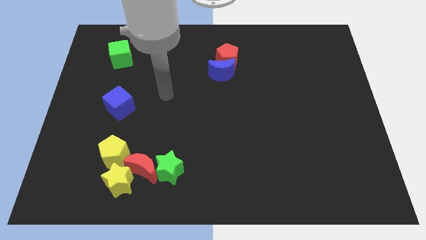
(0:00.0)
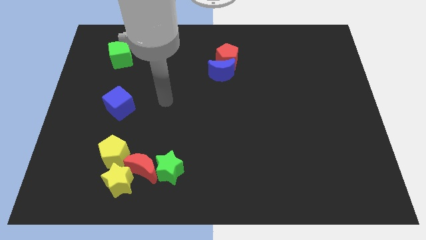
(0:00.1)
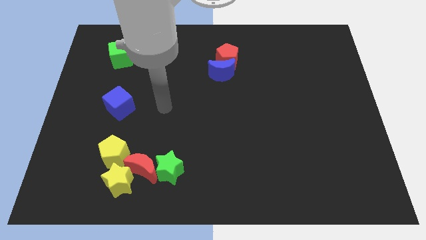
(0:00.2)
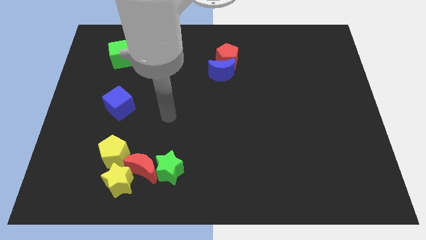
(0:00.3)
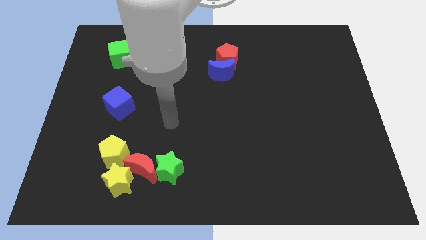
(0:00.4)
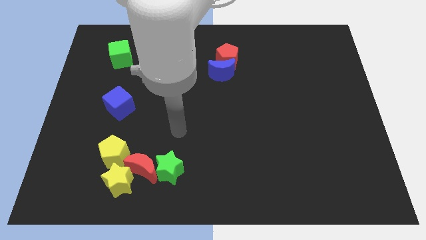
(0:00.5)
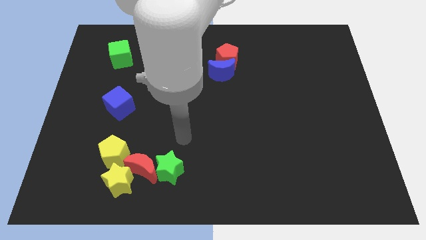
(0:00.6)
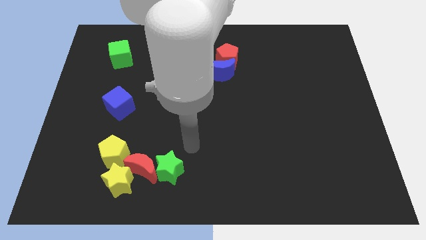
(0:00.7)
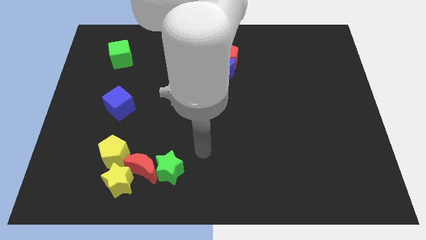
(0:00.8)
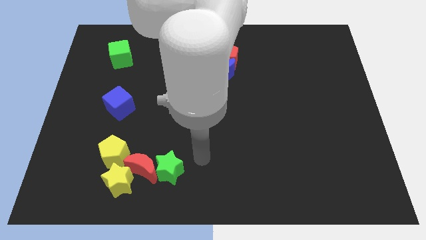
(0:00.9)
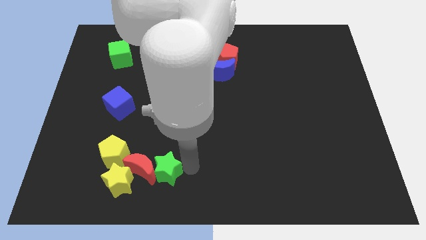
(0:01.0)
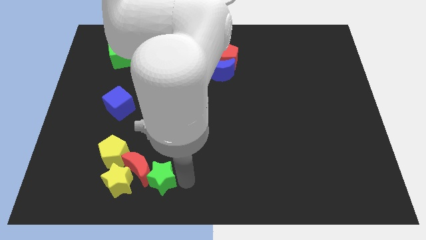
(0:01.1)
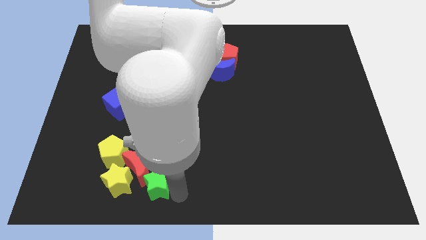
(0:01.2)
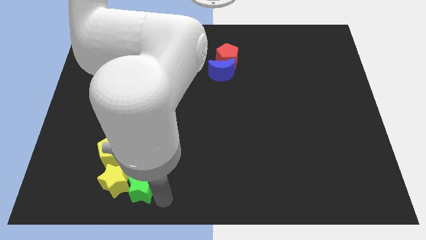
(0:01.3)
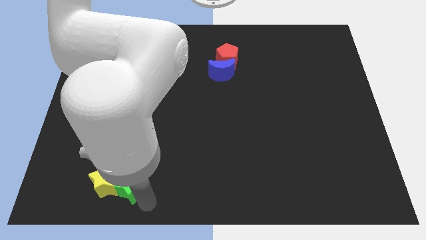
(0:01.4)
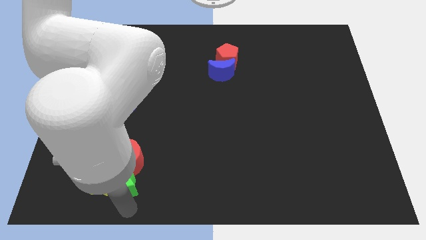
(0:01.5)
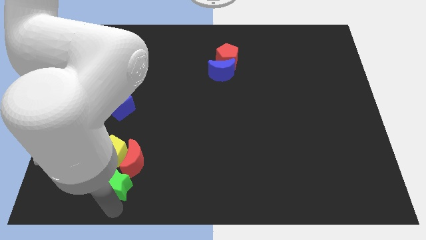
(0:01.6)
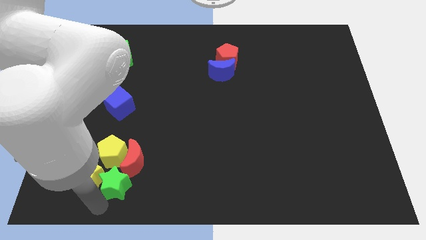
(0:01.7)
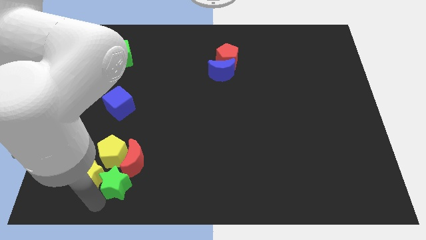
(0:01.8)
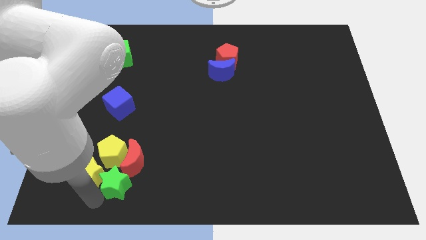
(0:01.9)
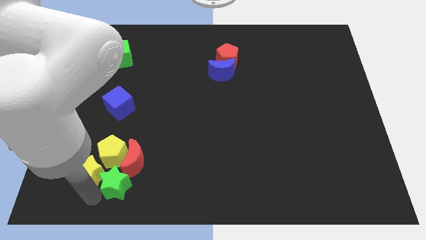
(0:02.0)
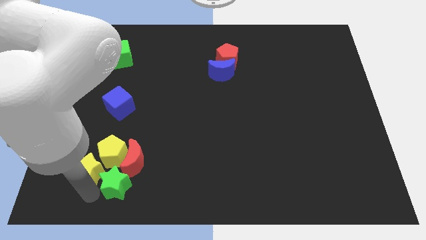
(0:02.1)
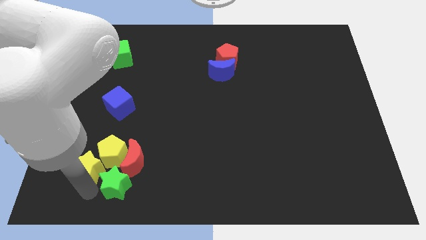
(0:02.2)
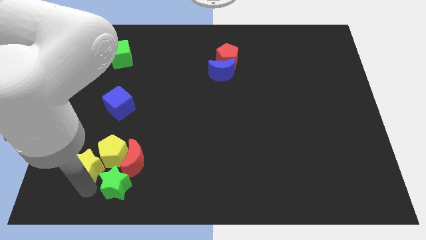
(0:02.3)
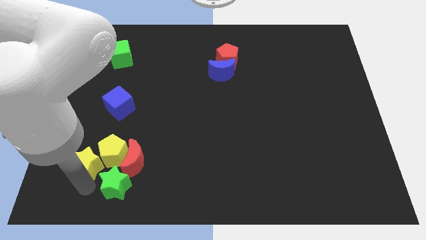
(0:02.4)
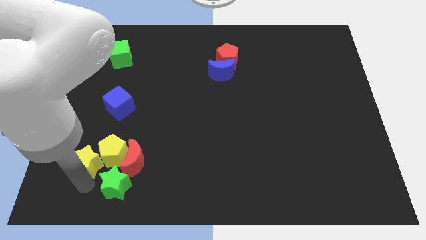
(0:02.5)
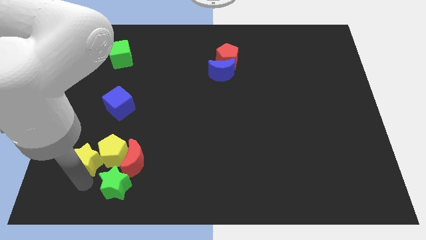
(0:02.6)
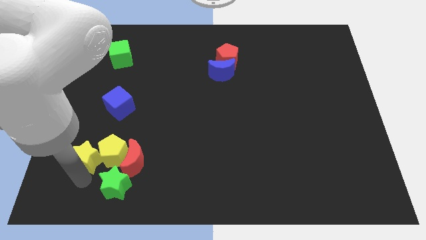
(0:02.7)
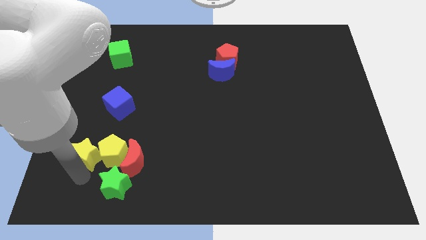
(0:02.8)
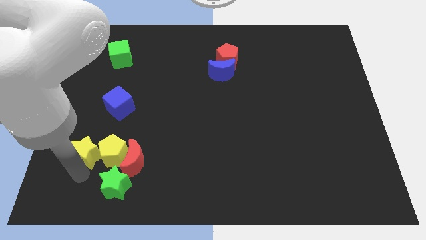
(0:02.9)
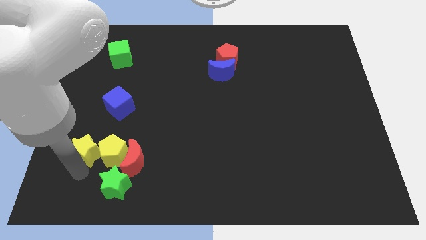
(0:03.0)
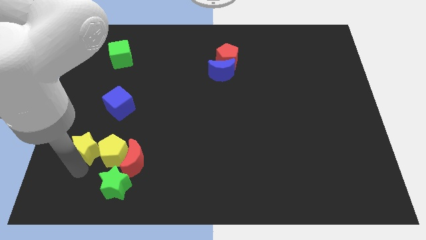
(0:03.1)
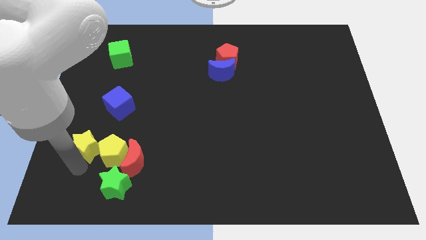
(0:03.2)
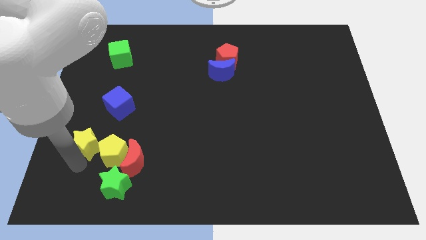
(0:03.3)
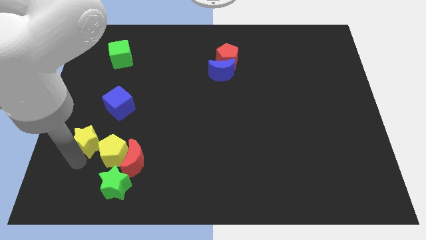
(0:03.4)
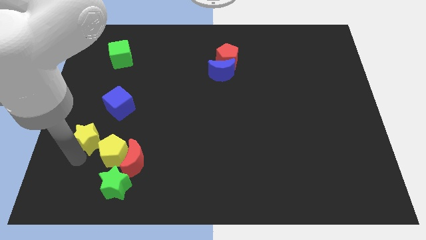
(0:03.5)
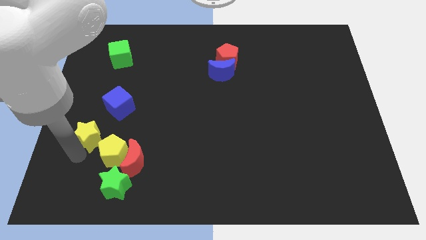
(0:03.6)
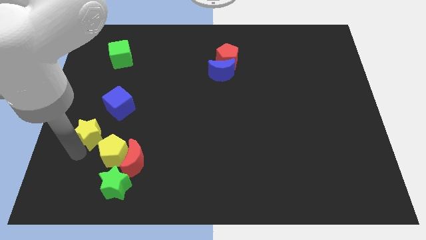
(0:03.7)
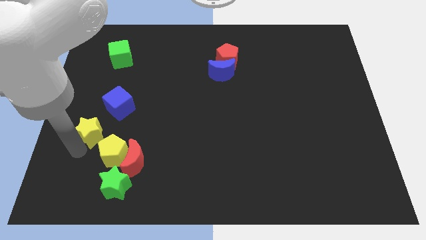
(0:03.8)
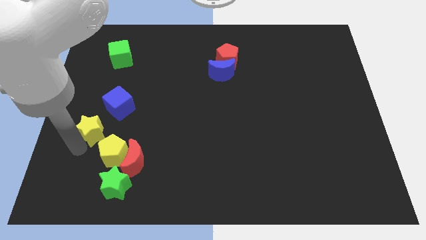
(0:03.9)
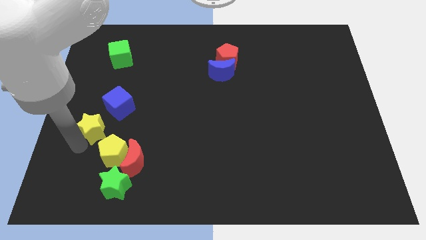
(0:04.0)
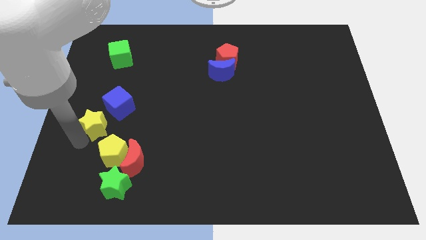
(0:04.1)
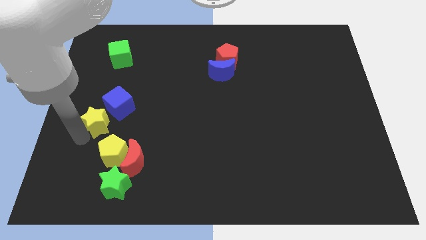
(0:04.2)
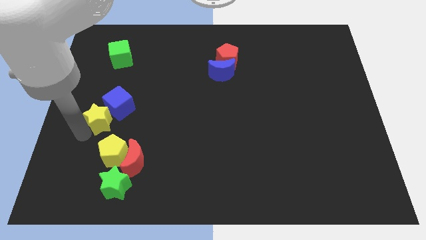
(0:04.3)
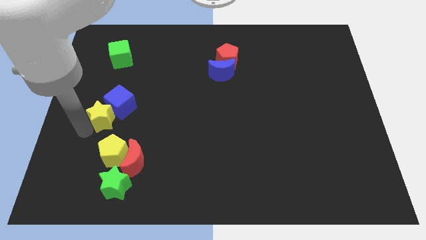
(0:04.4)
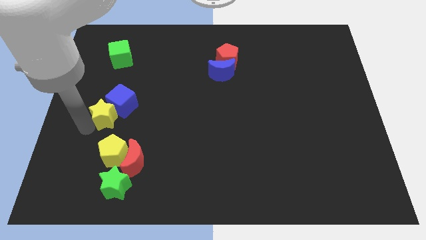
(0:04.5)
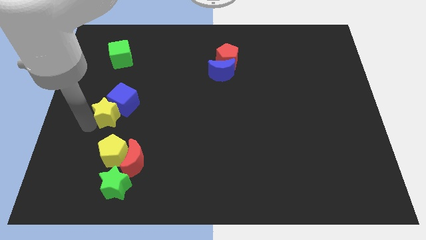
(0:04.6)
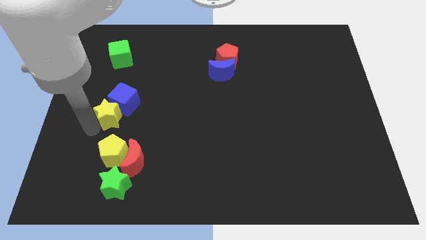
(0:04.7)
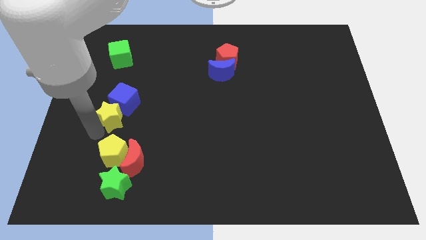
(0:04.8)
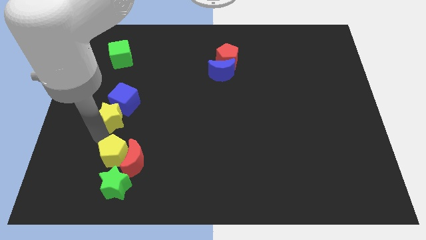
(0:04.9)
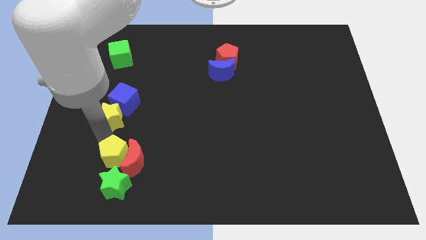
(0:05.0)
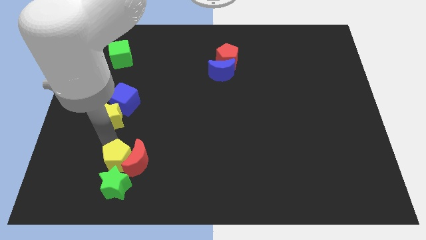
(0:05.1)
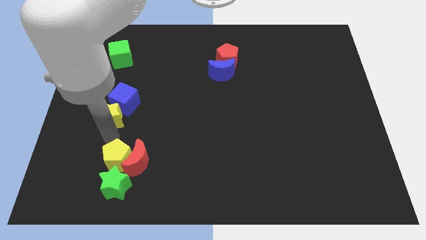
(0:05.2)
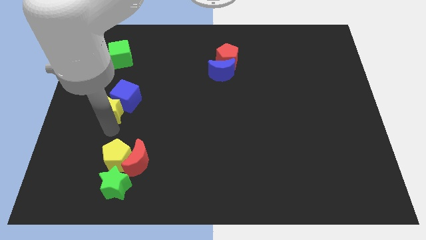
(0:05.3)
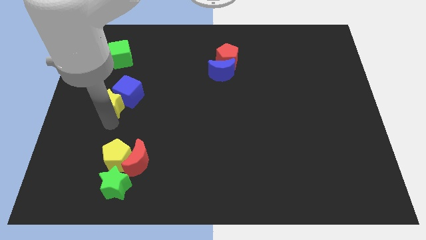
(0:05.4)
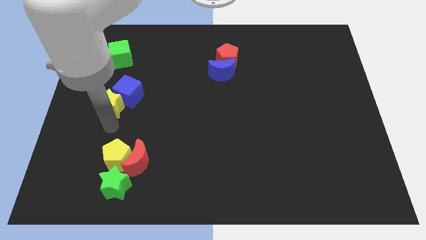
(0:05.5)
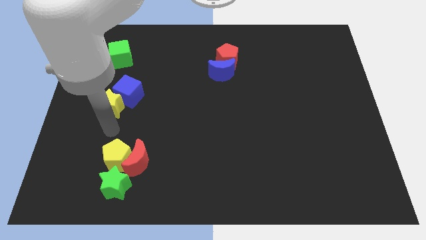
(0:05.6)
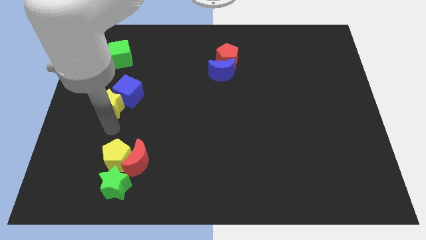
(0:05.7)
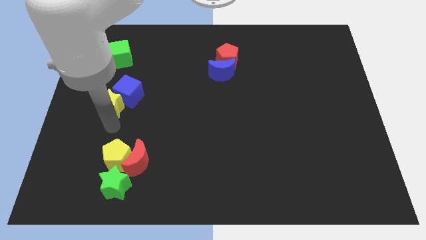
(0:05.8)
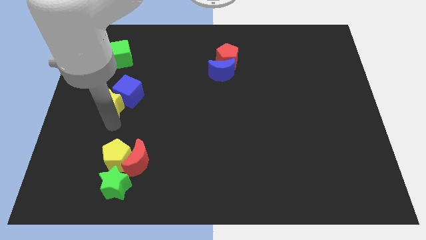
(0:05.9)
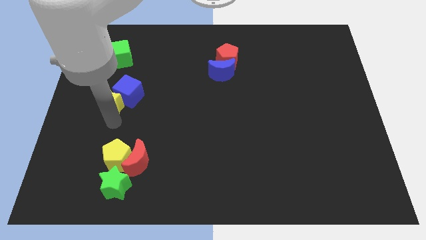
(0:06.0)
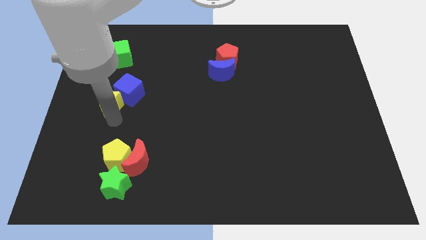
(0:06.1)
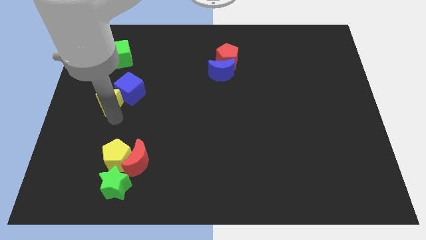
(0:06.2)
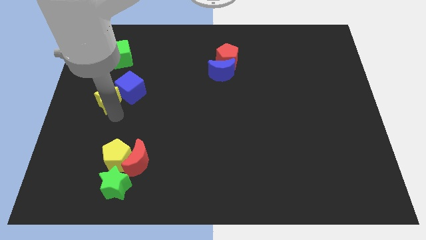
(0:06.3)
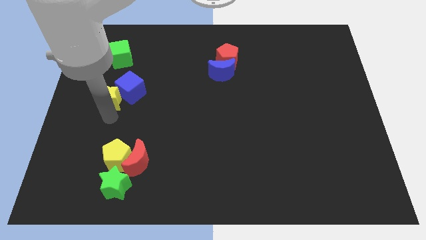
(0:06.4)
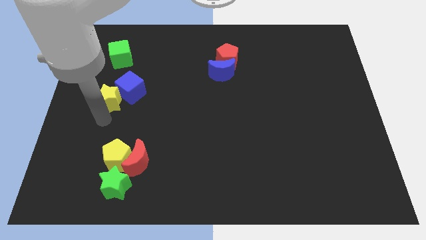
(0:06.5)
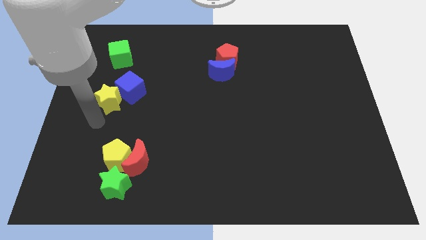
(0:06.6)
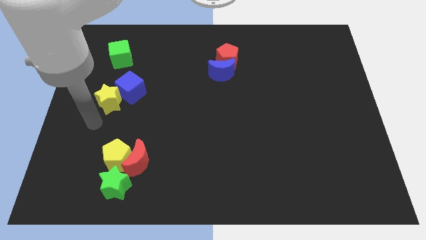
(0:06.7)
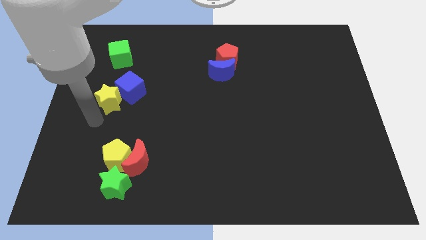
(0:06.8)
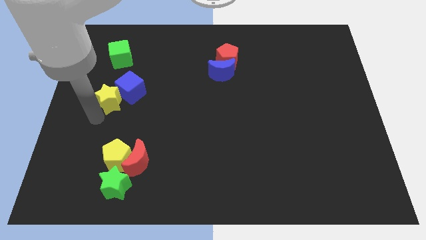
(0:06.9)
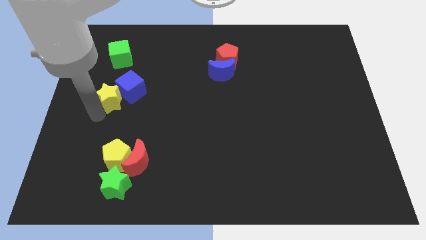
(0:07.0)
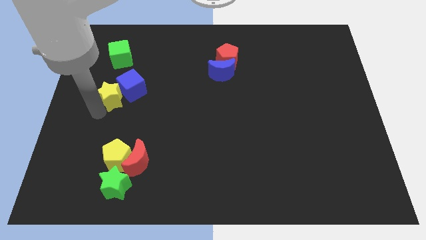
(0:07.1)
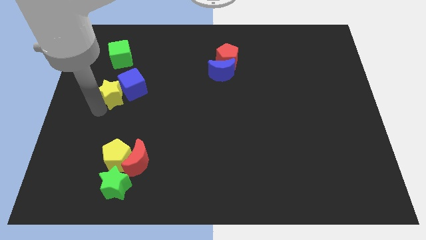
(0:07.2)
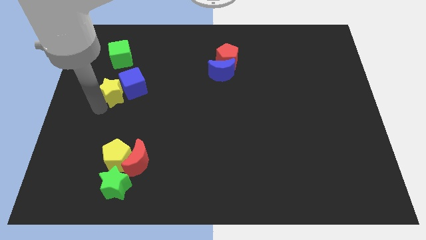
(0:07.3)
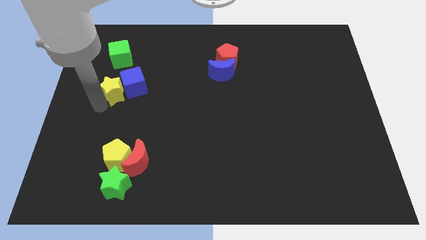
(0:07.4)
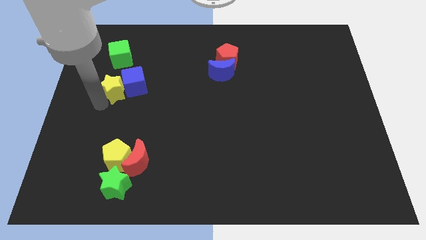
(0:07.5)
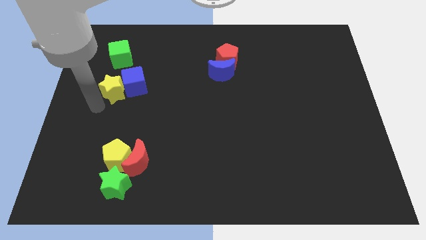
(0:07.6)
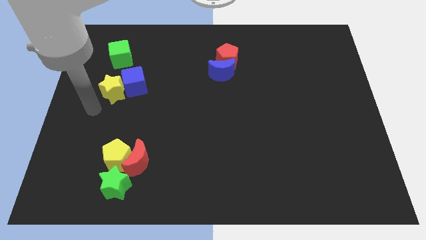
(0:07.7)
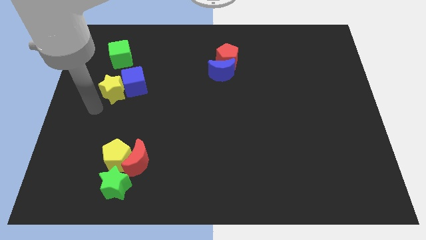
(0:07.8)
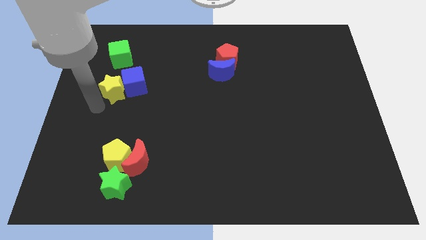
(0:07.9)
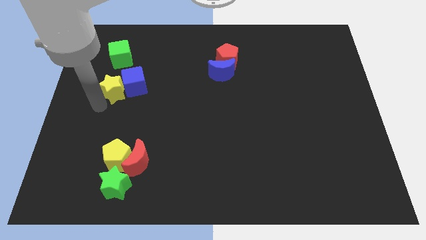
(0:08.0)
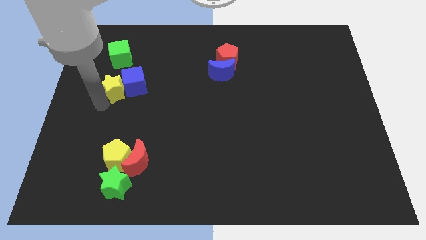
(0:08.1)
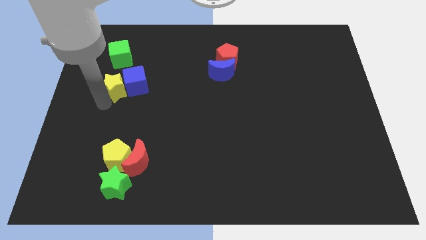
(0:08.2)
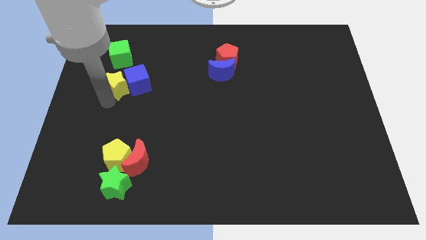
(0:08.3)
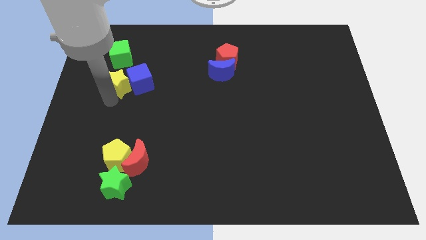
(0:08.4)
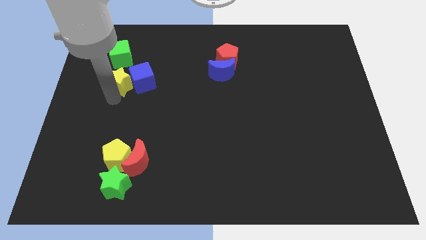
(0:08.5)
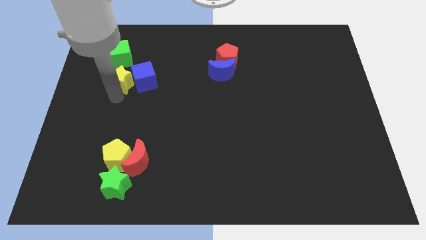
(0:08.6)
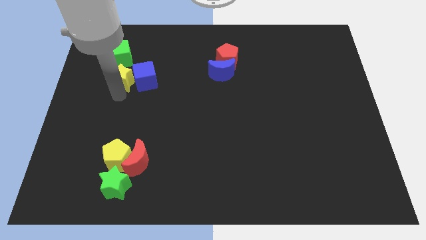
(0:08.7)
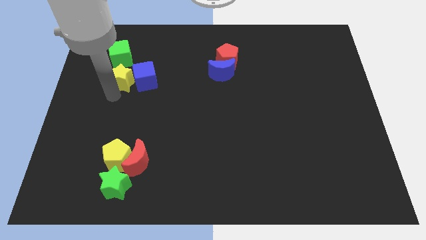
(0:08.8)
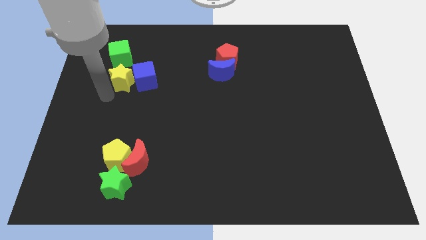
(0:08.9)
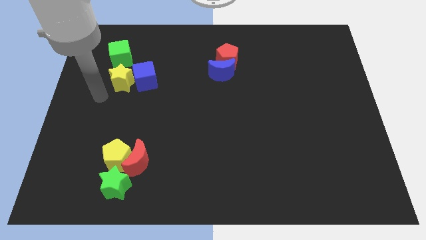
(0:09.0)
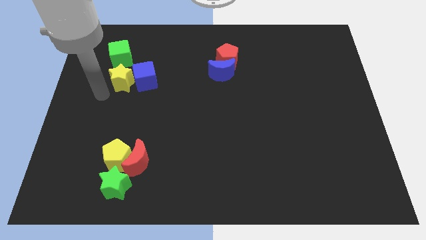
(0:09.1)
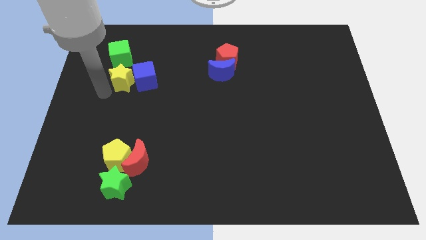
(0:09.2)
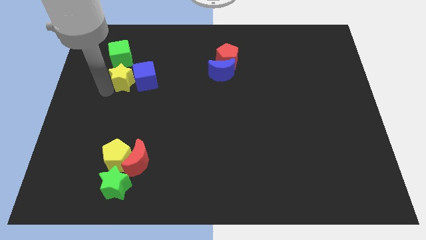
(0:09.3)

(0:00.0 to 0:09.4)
push the yellow star to the bottom right side of the green cube
